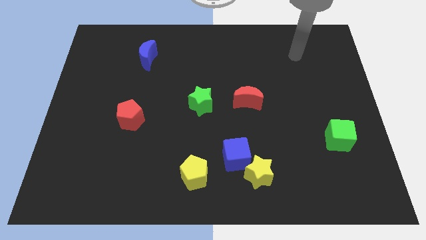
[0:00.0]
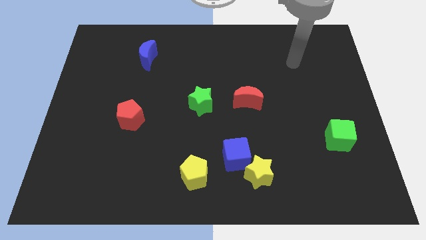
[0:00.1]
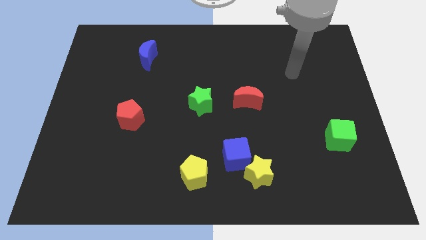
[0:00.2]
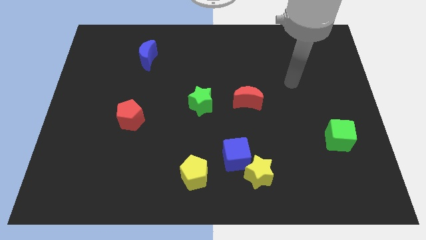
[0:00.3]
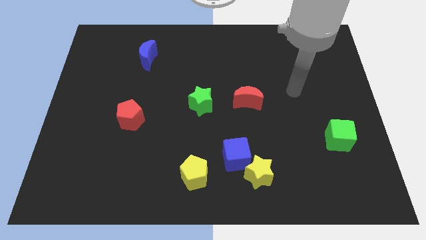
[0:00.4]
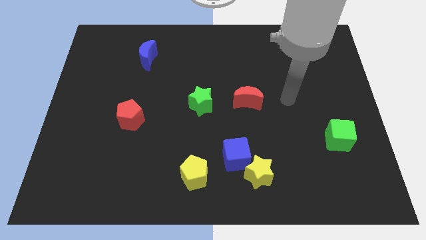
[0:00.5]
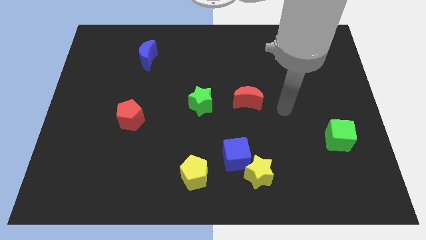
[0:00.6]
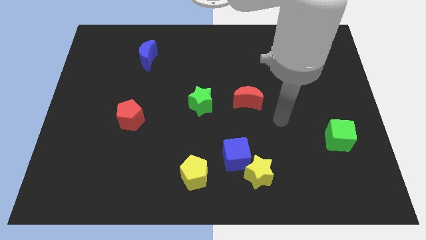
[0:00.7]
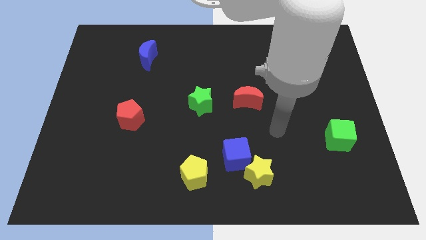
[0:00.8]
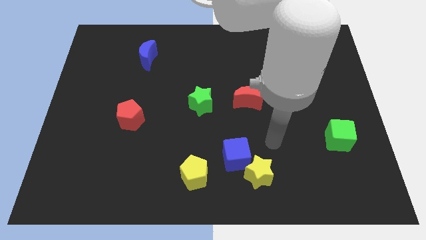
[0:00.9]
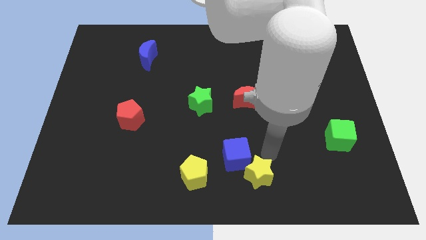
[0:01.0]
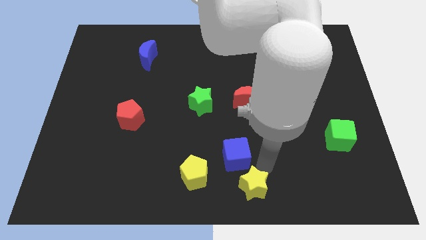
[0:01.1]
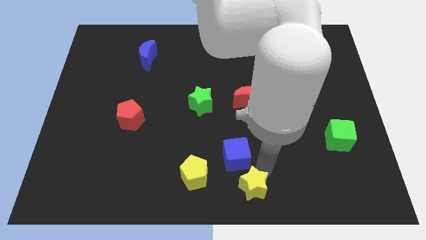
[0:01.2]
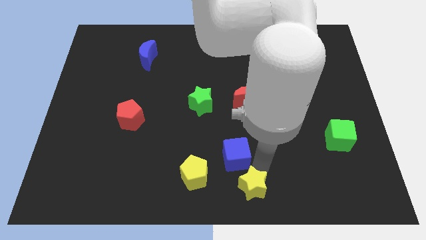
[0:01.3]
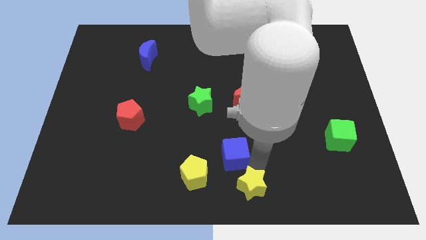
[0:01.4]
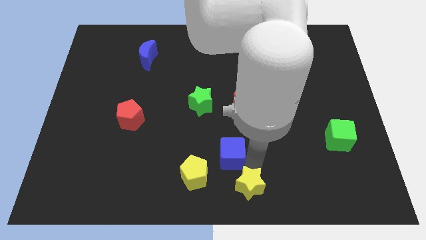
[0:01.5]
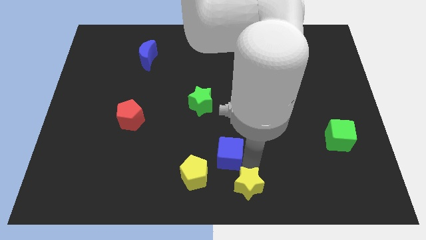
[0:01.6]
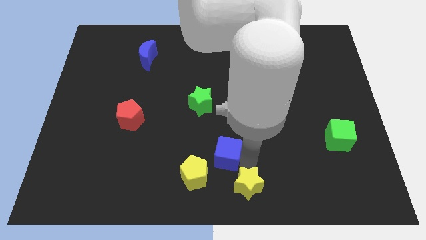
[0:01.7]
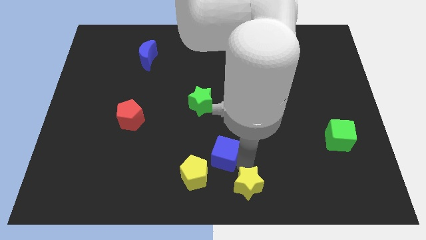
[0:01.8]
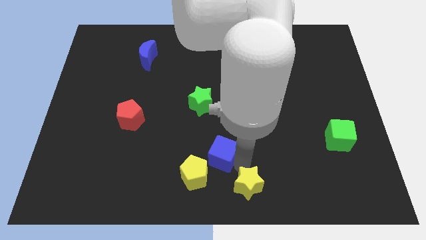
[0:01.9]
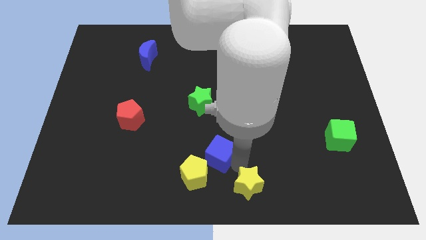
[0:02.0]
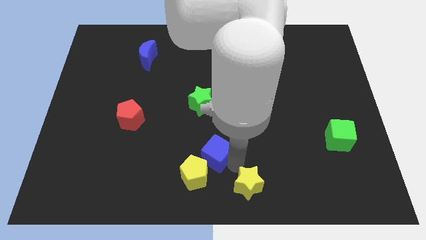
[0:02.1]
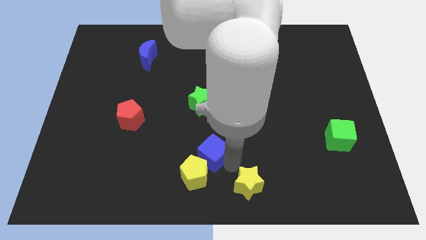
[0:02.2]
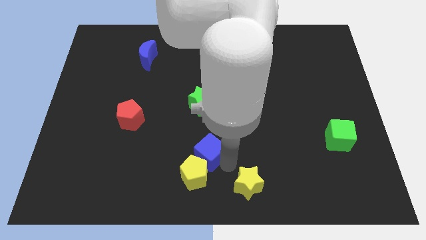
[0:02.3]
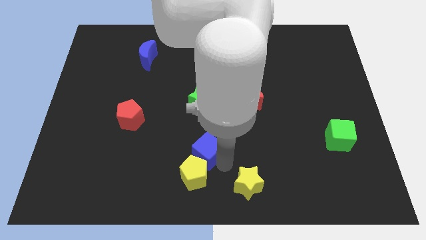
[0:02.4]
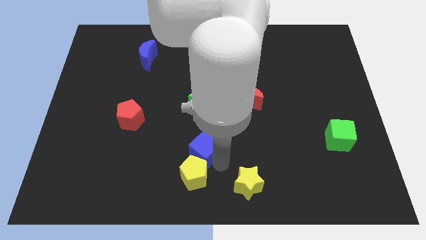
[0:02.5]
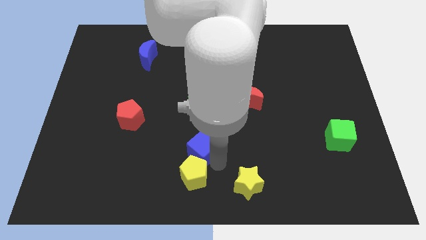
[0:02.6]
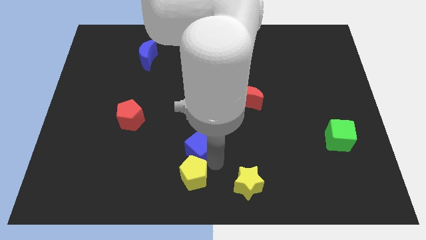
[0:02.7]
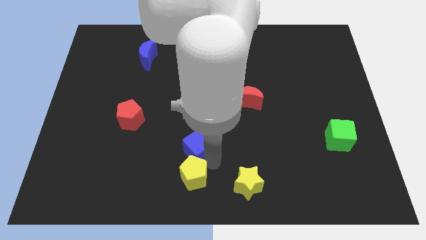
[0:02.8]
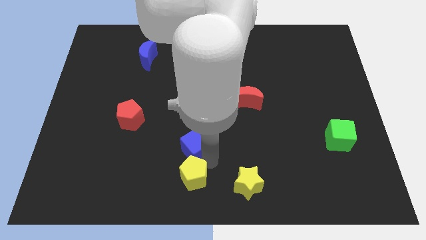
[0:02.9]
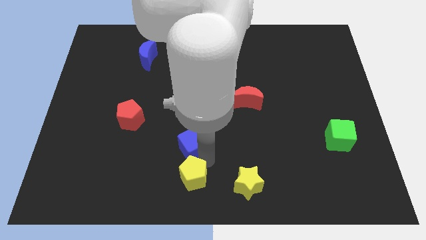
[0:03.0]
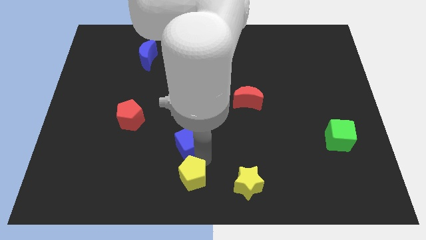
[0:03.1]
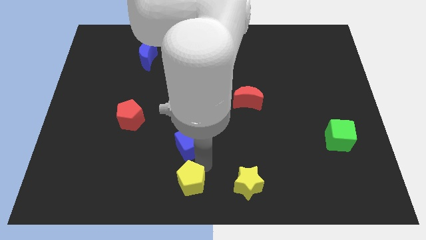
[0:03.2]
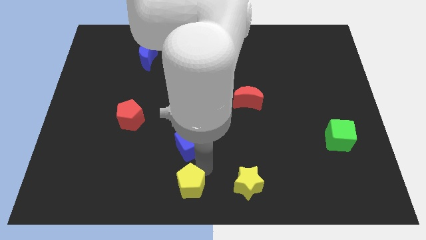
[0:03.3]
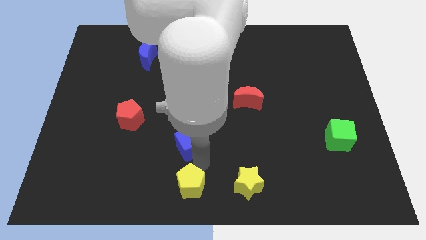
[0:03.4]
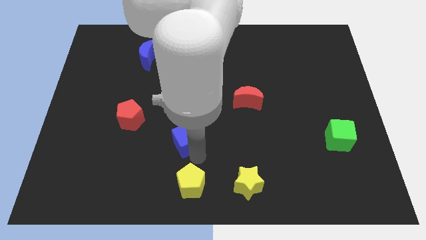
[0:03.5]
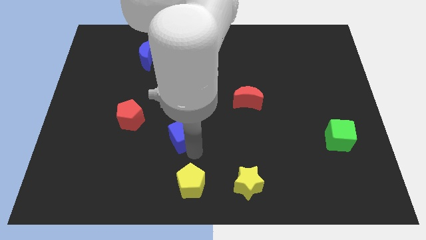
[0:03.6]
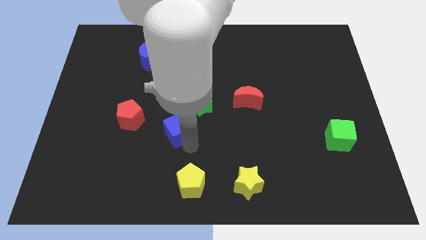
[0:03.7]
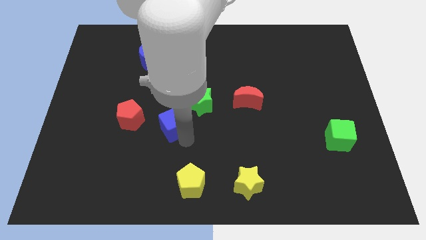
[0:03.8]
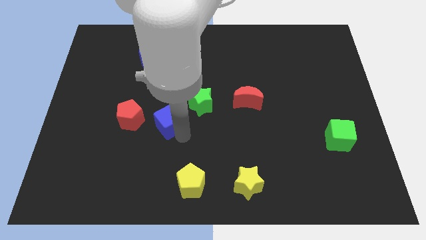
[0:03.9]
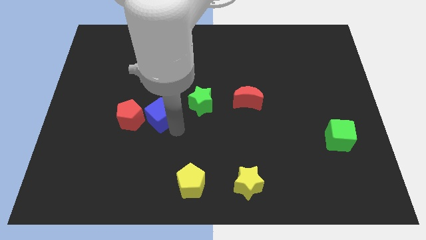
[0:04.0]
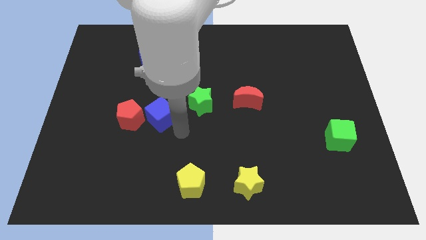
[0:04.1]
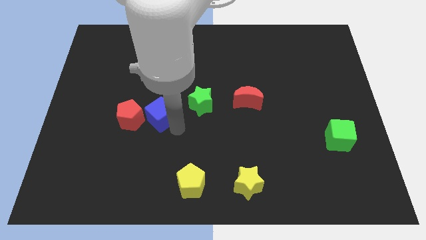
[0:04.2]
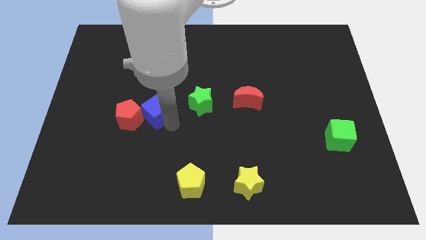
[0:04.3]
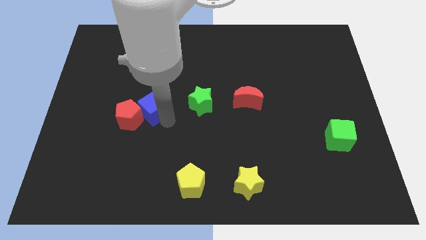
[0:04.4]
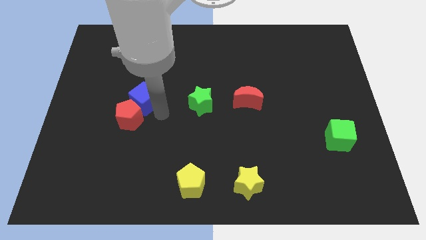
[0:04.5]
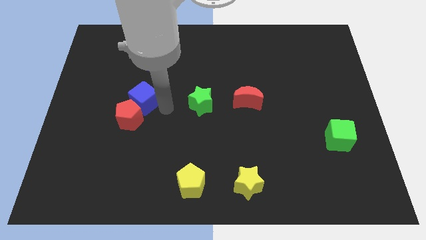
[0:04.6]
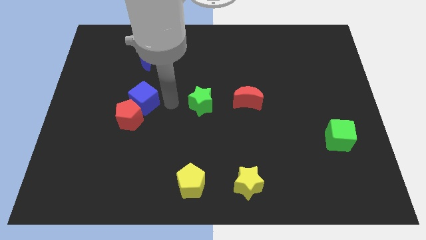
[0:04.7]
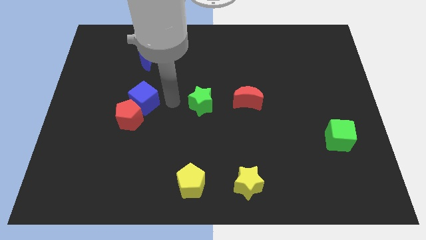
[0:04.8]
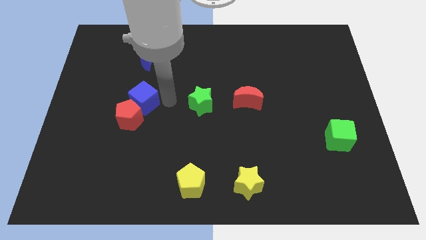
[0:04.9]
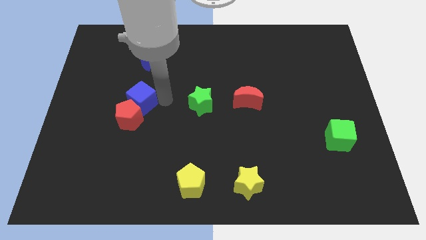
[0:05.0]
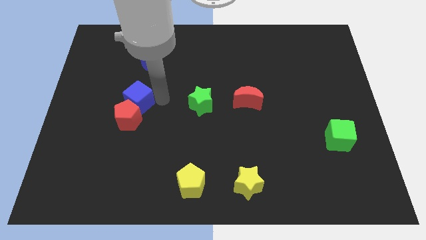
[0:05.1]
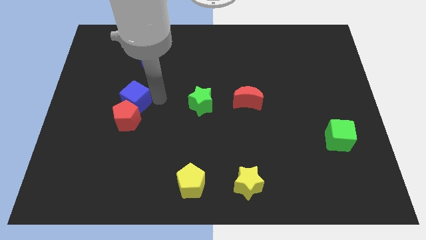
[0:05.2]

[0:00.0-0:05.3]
move the blue cube to the top left side of the red pentagon

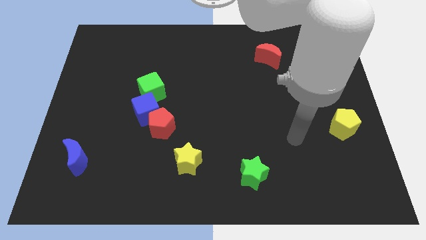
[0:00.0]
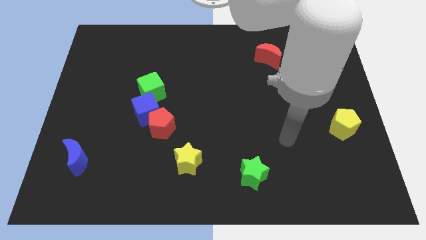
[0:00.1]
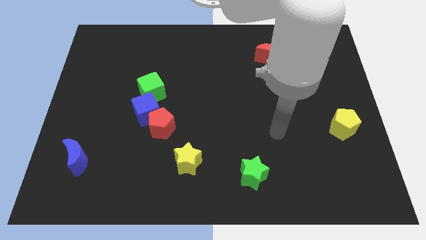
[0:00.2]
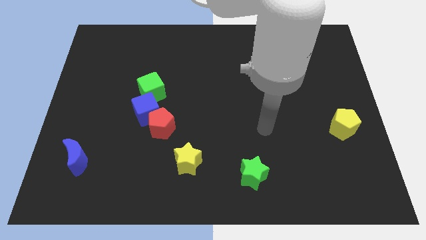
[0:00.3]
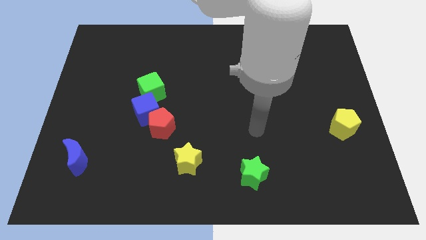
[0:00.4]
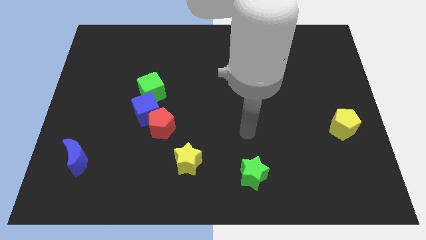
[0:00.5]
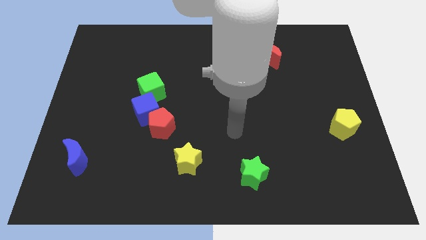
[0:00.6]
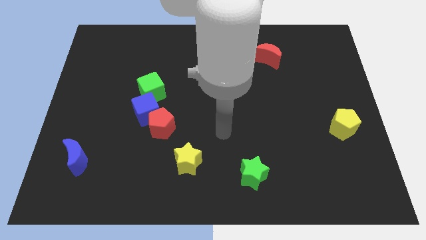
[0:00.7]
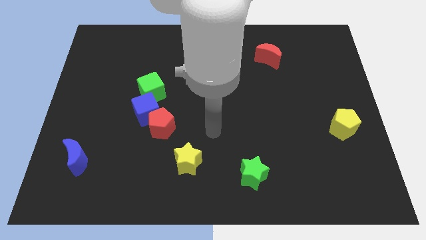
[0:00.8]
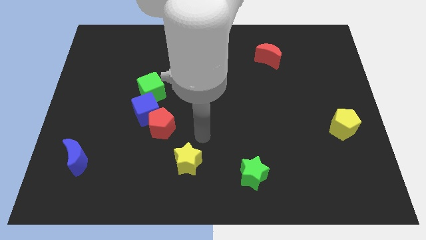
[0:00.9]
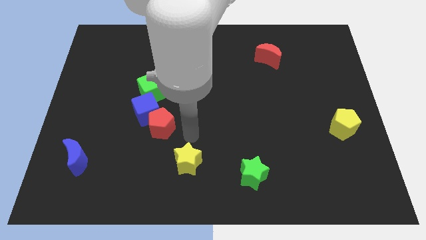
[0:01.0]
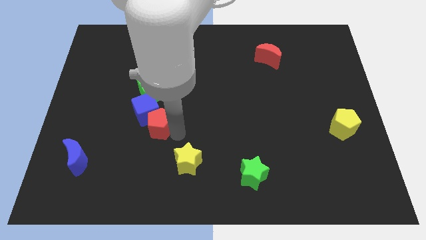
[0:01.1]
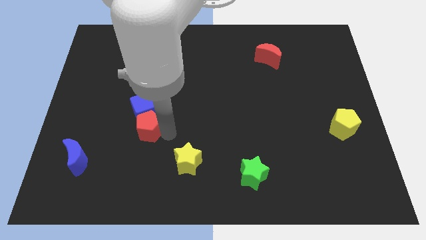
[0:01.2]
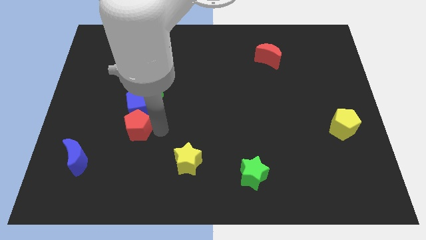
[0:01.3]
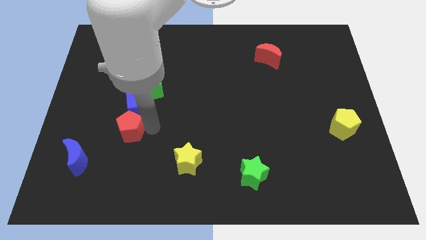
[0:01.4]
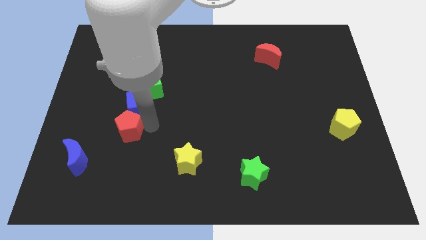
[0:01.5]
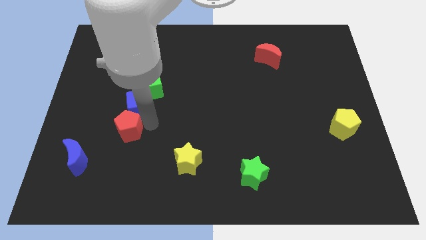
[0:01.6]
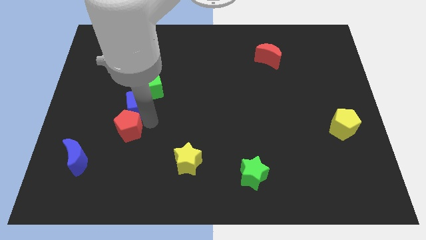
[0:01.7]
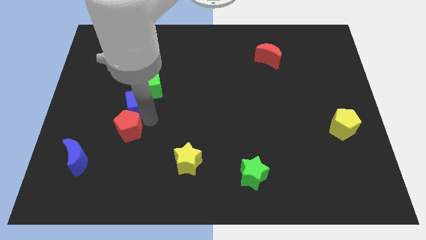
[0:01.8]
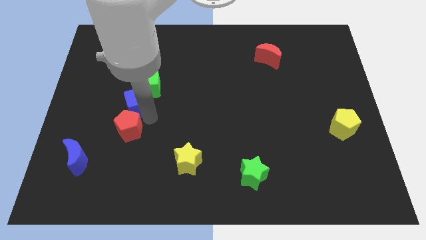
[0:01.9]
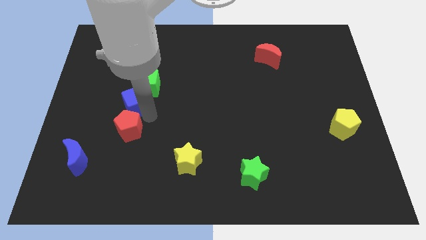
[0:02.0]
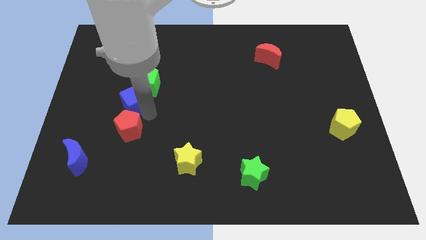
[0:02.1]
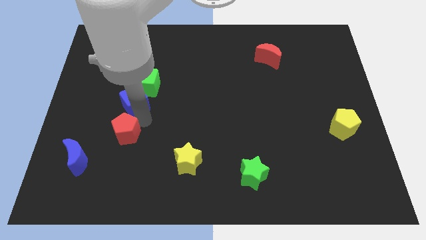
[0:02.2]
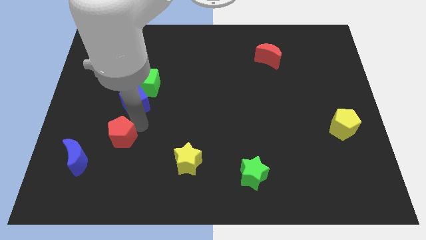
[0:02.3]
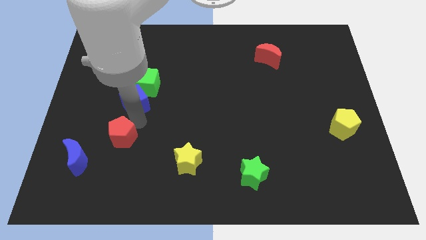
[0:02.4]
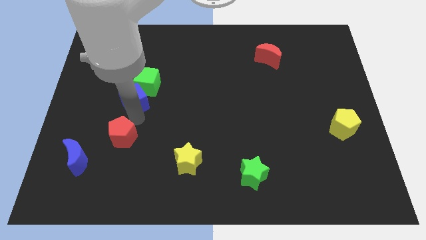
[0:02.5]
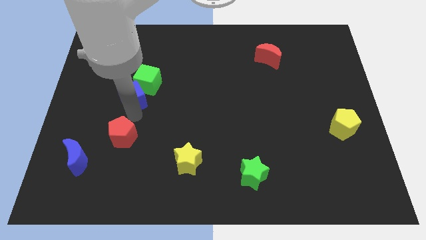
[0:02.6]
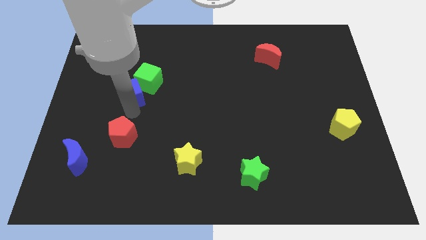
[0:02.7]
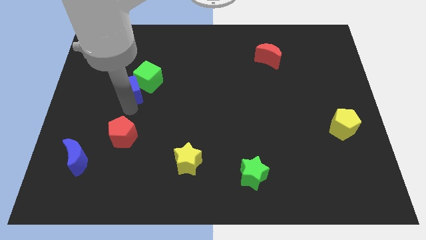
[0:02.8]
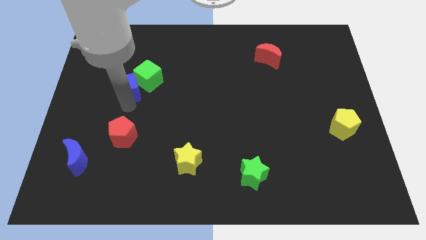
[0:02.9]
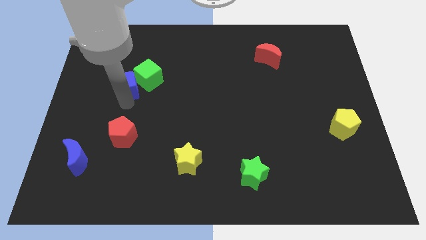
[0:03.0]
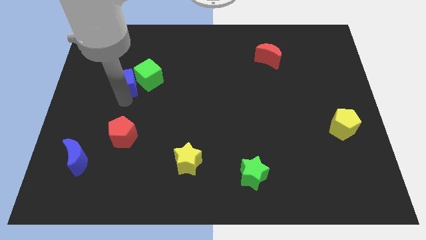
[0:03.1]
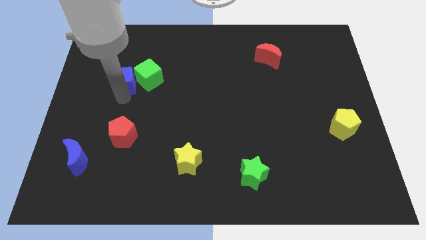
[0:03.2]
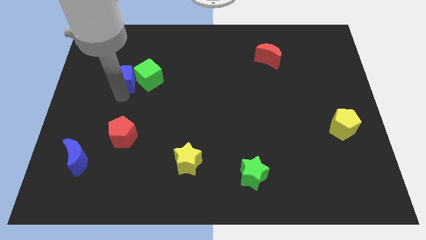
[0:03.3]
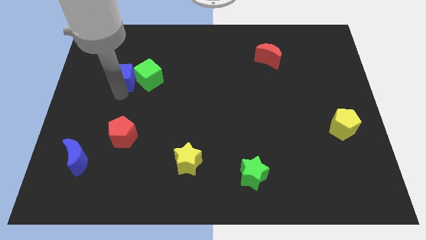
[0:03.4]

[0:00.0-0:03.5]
slide the blue cube to the top left of the green cube

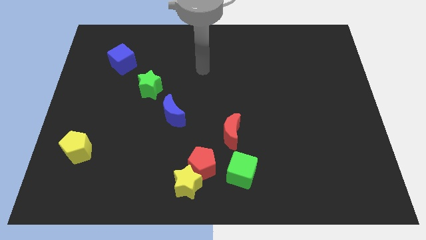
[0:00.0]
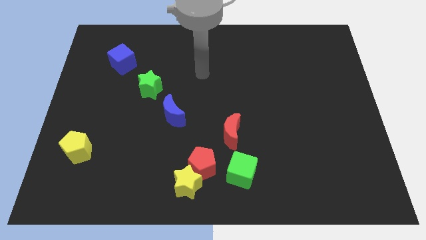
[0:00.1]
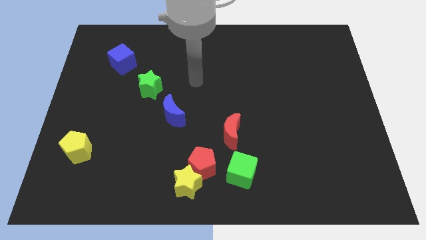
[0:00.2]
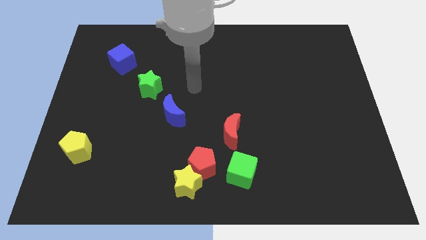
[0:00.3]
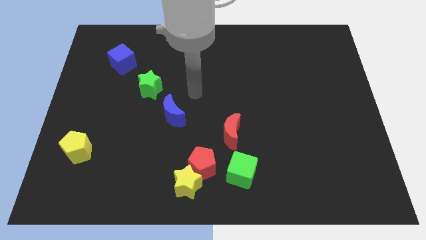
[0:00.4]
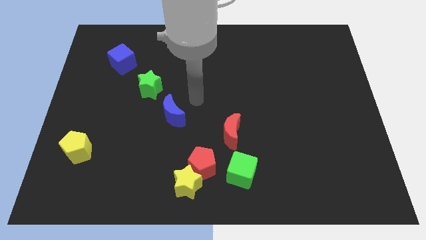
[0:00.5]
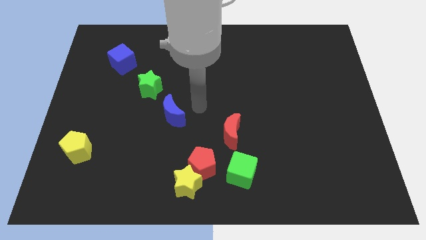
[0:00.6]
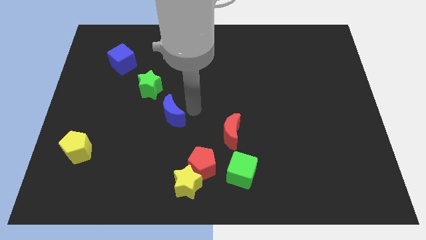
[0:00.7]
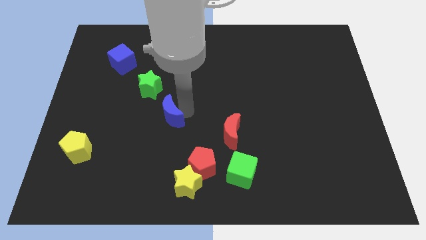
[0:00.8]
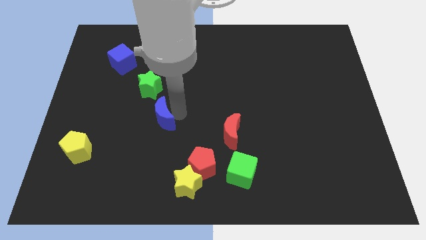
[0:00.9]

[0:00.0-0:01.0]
slide the blue moon to the bottom of the green star
